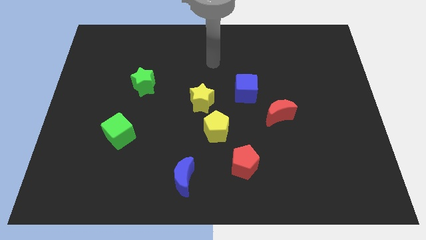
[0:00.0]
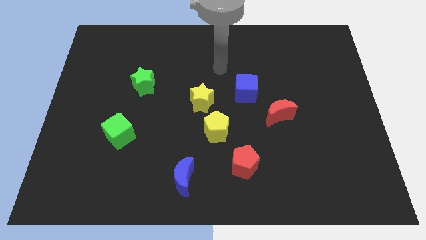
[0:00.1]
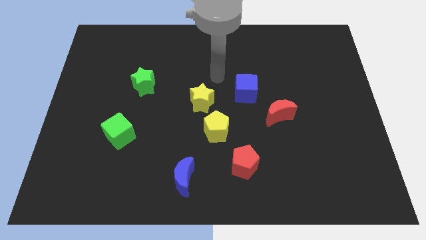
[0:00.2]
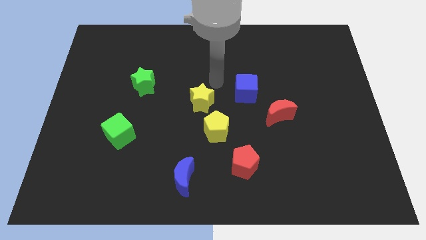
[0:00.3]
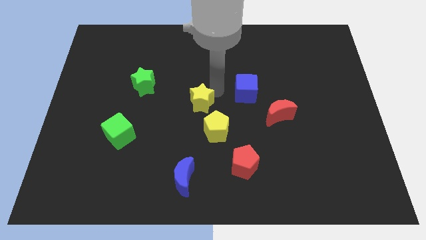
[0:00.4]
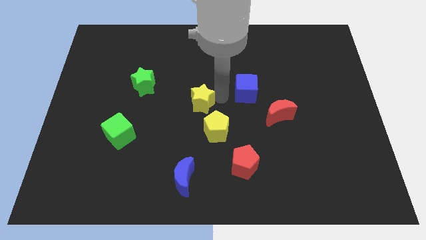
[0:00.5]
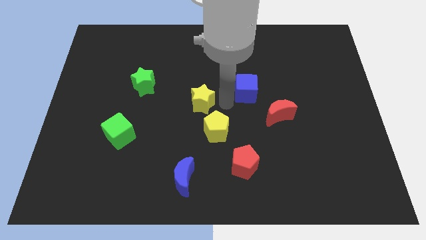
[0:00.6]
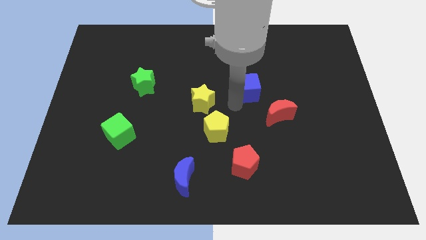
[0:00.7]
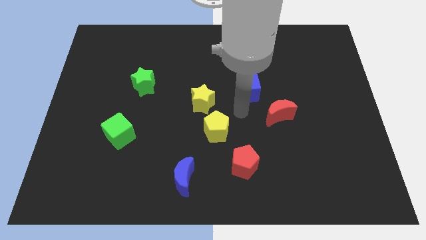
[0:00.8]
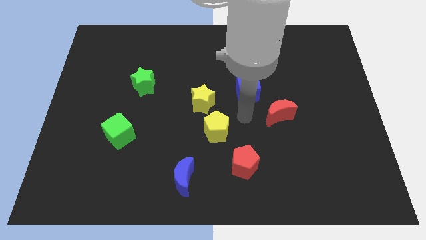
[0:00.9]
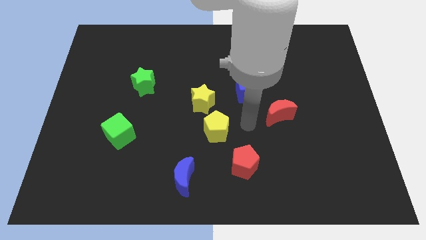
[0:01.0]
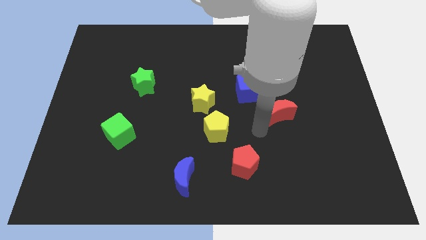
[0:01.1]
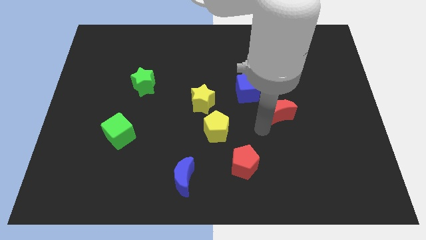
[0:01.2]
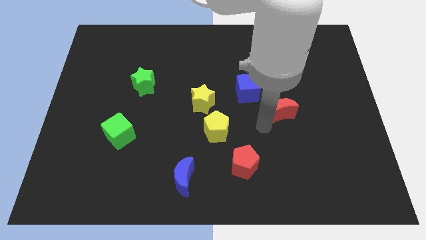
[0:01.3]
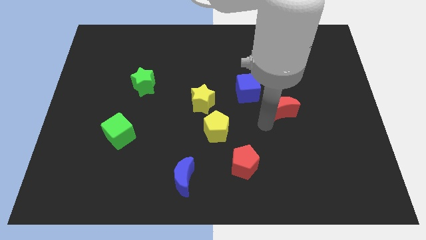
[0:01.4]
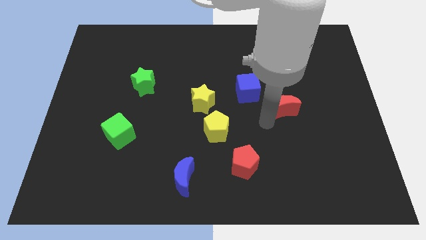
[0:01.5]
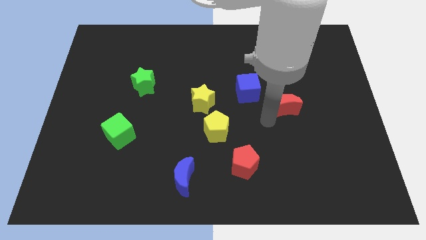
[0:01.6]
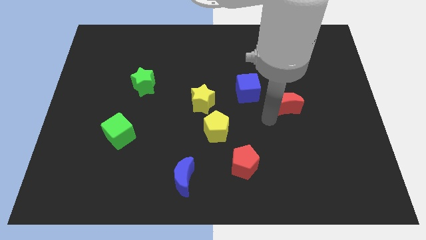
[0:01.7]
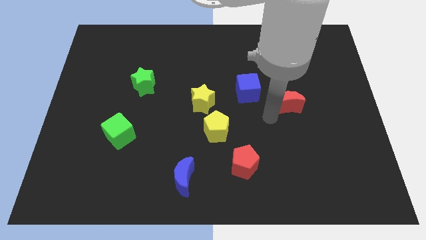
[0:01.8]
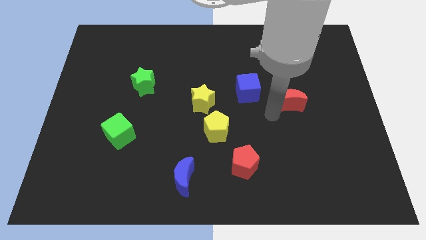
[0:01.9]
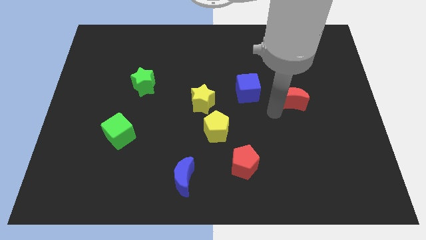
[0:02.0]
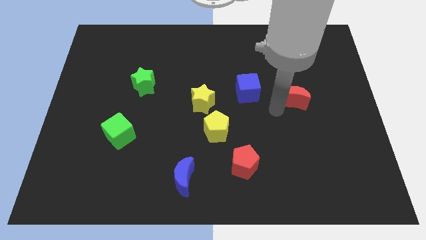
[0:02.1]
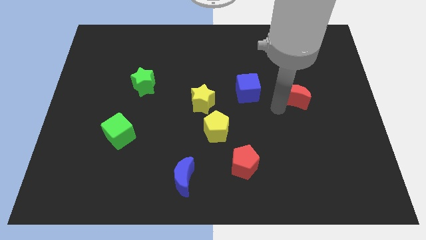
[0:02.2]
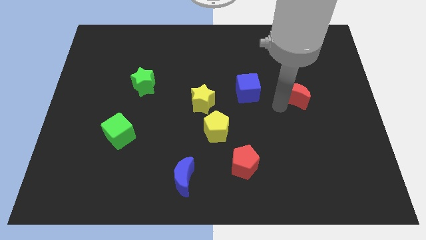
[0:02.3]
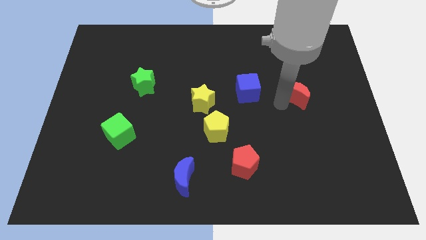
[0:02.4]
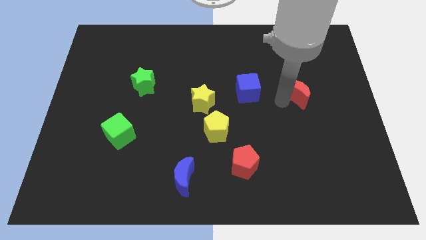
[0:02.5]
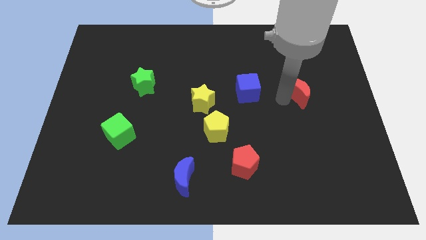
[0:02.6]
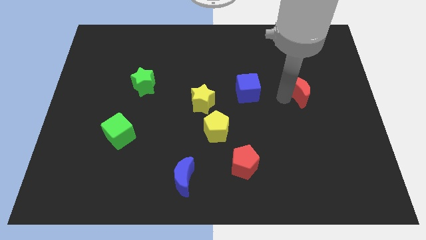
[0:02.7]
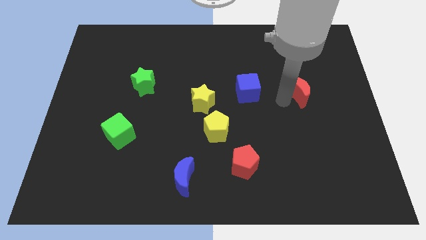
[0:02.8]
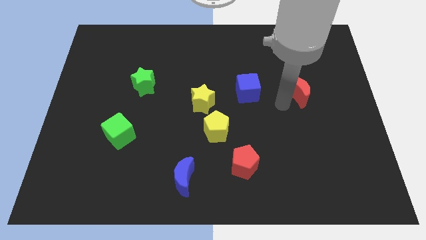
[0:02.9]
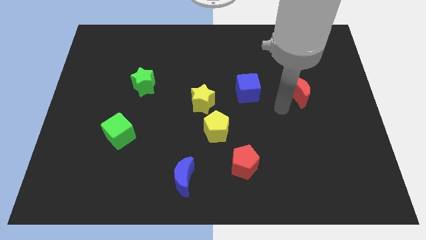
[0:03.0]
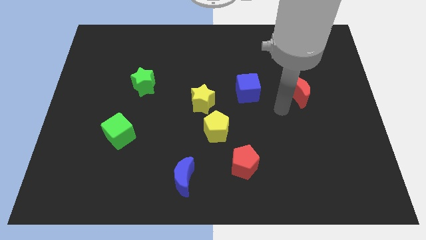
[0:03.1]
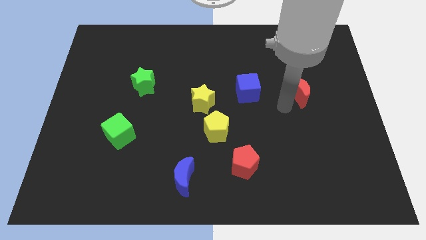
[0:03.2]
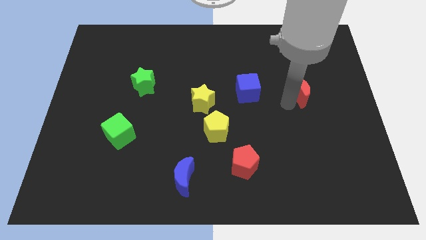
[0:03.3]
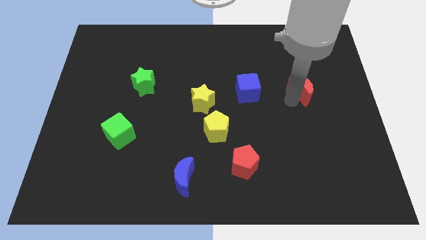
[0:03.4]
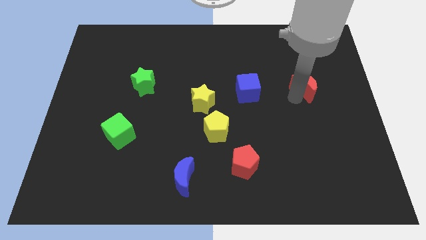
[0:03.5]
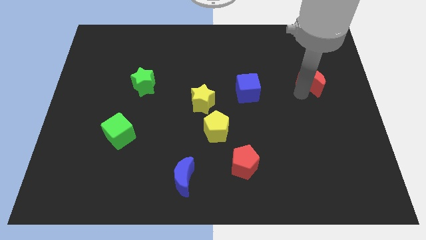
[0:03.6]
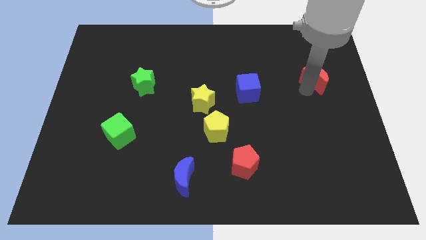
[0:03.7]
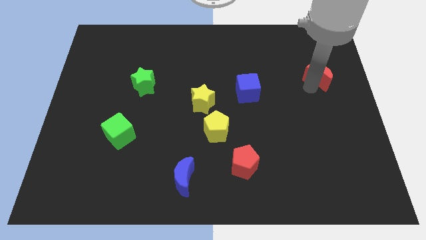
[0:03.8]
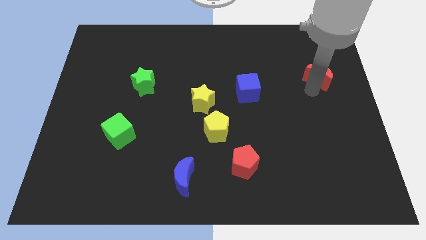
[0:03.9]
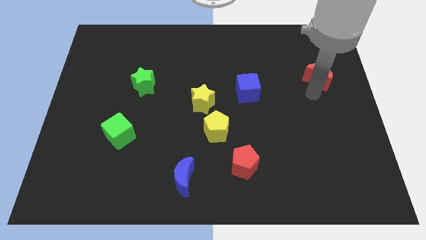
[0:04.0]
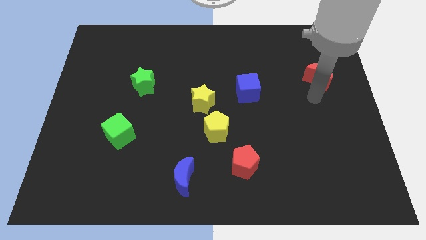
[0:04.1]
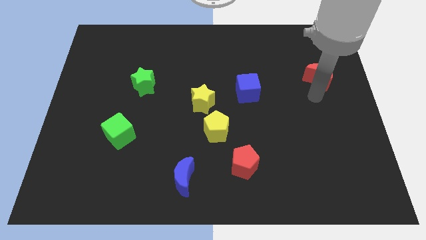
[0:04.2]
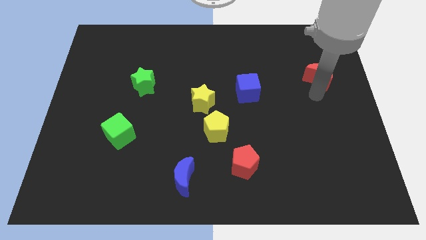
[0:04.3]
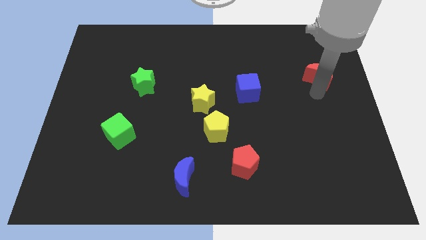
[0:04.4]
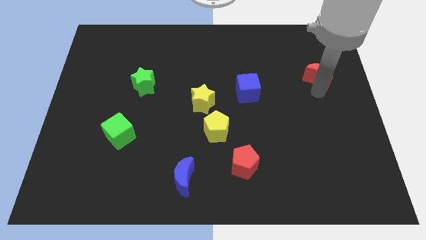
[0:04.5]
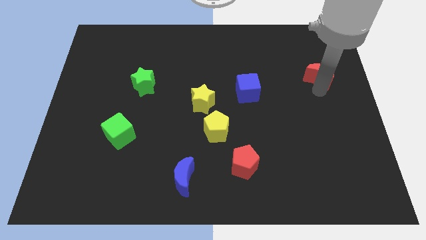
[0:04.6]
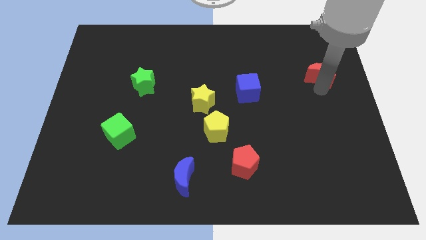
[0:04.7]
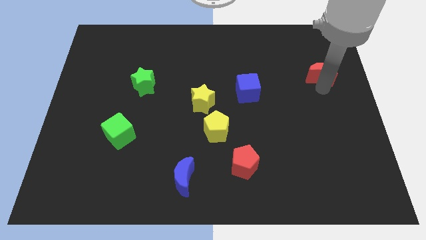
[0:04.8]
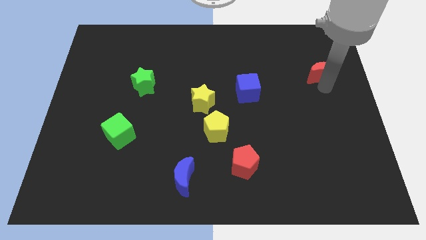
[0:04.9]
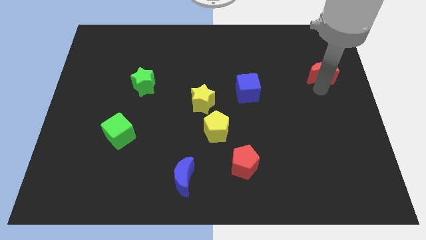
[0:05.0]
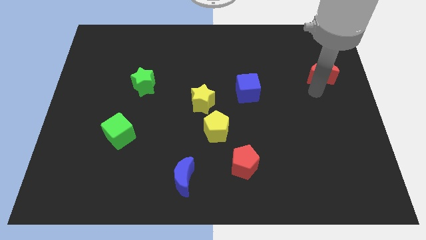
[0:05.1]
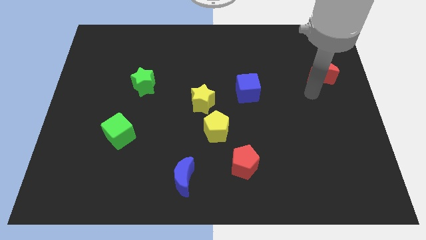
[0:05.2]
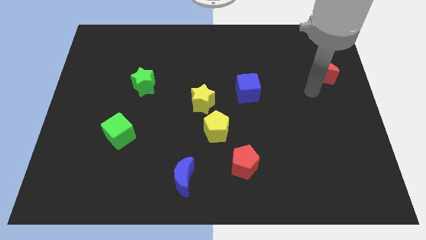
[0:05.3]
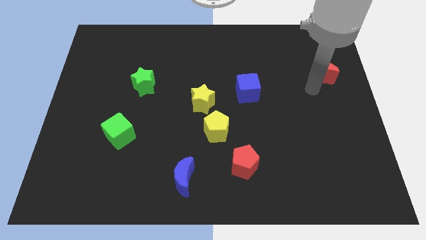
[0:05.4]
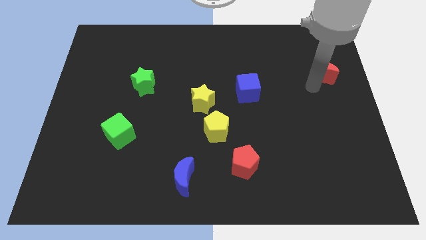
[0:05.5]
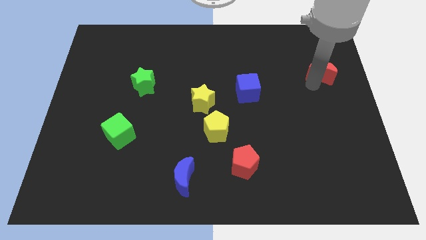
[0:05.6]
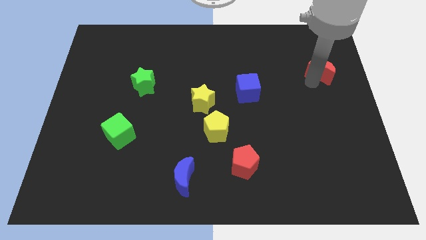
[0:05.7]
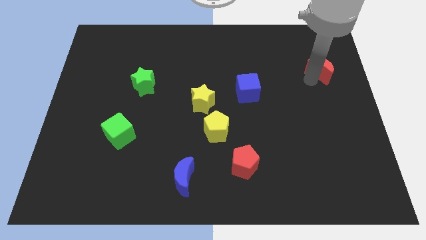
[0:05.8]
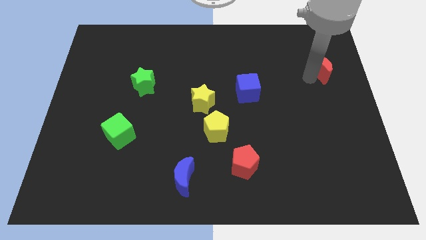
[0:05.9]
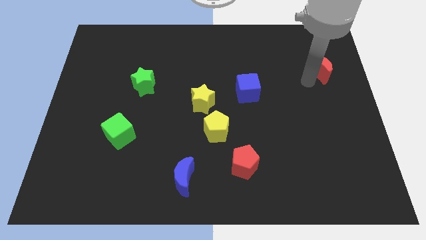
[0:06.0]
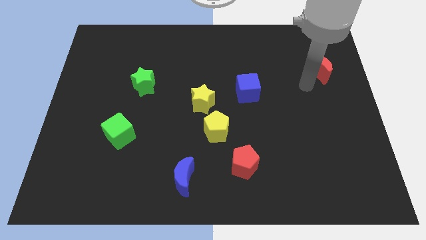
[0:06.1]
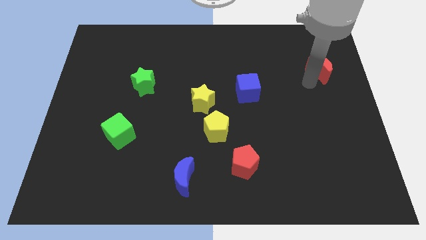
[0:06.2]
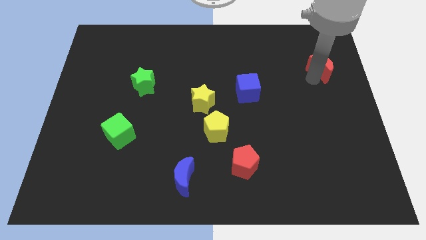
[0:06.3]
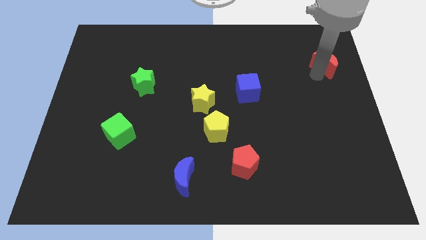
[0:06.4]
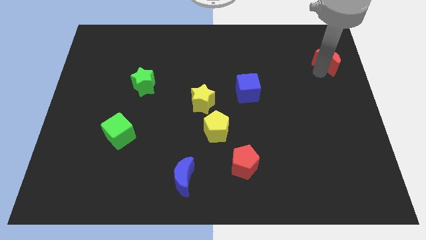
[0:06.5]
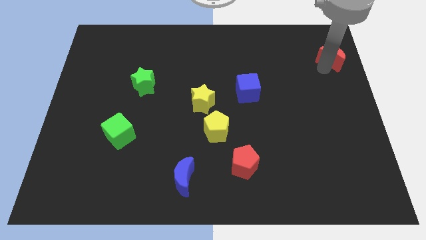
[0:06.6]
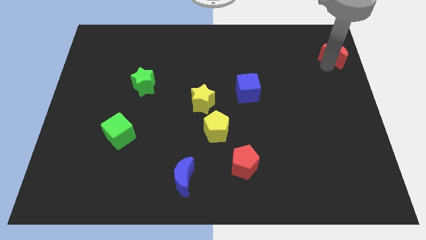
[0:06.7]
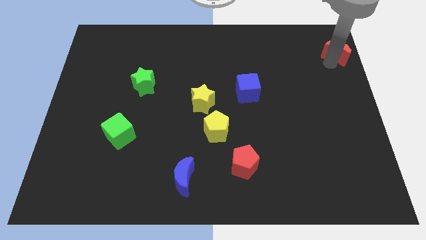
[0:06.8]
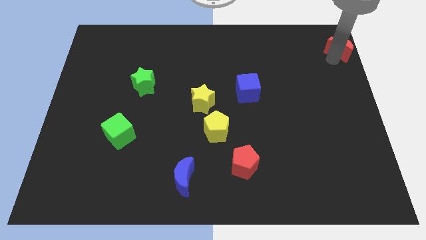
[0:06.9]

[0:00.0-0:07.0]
move the red moon to the upper right corner

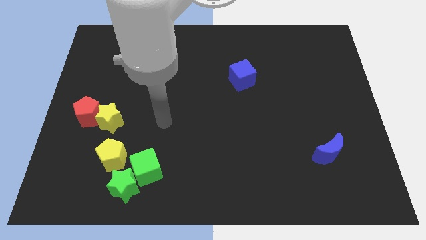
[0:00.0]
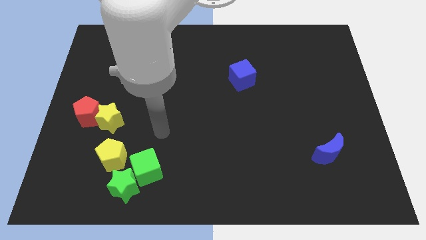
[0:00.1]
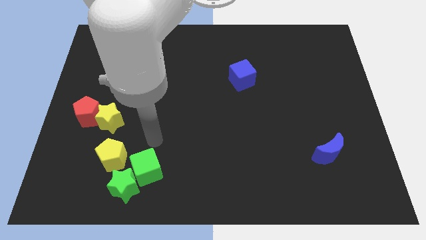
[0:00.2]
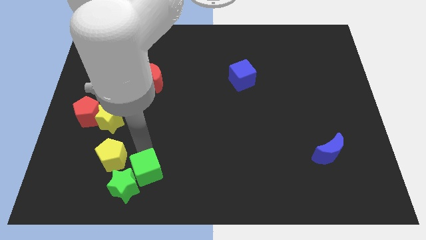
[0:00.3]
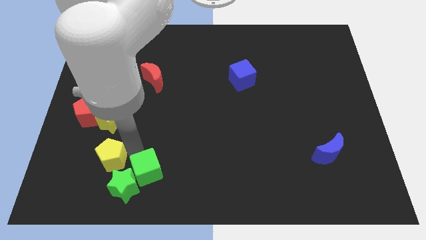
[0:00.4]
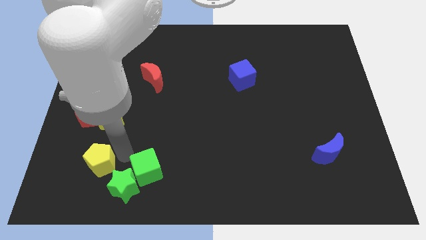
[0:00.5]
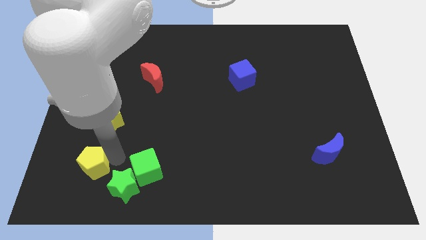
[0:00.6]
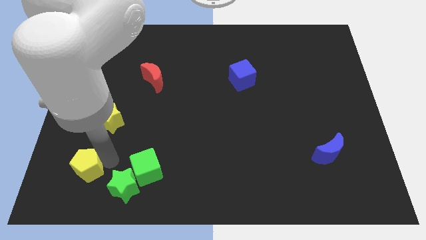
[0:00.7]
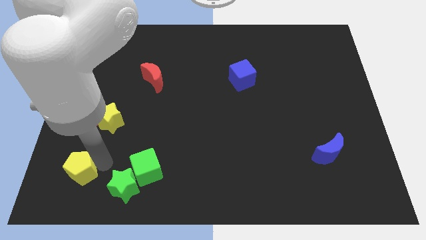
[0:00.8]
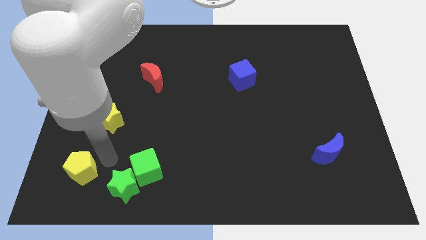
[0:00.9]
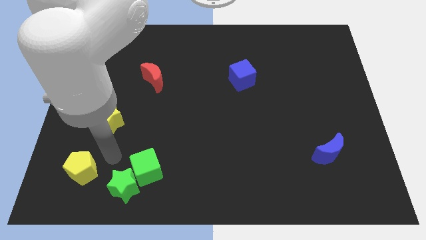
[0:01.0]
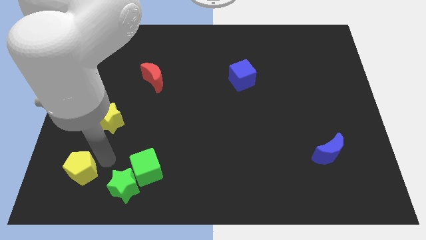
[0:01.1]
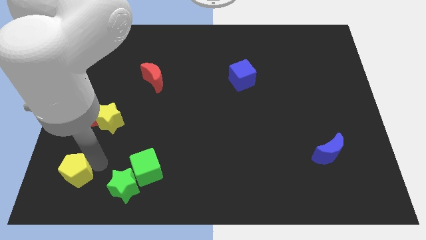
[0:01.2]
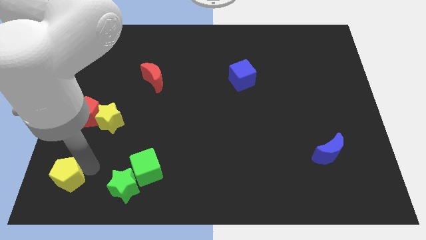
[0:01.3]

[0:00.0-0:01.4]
move the yellow pentagon to the bottom left of the board
